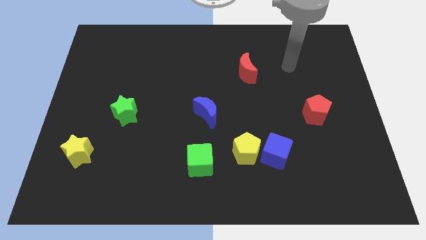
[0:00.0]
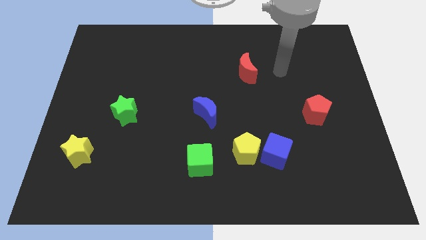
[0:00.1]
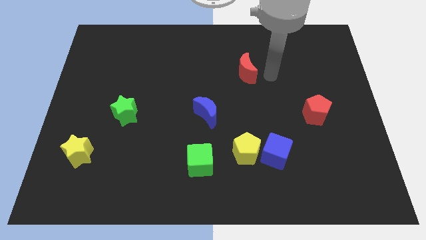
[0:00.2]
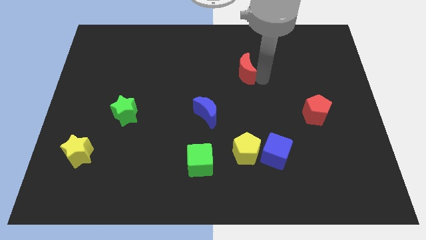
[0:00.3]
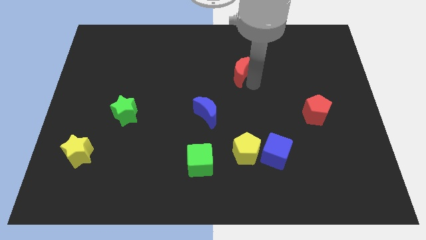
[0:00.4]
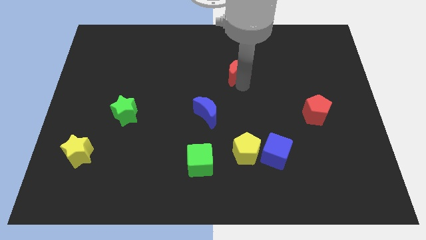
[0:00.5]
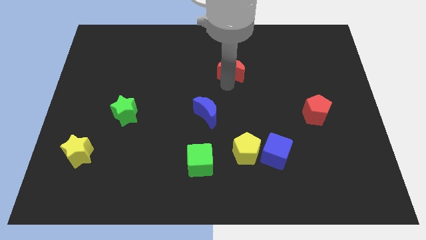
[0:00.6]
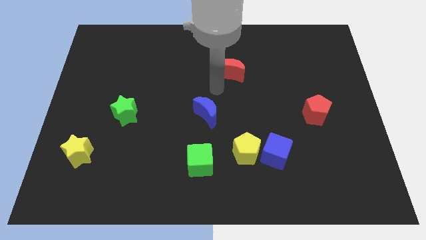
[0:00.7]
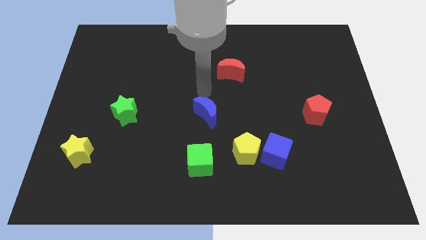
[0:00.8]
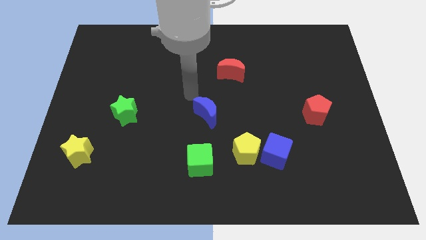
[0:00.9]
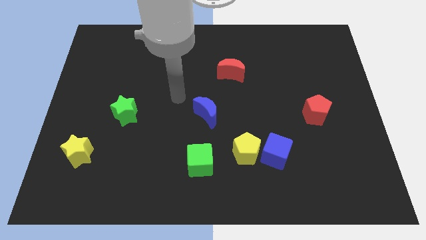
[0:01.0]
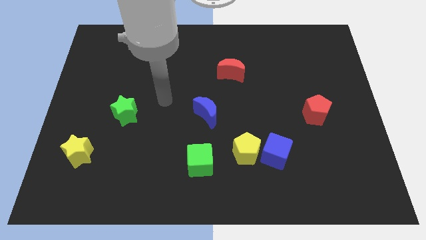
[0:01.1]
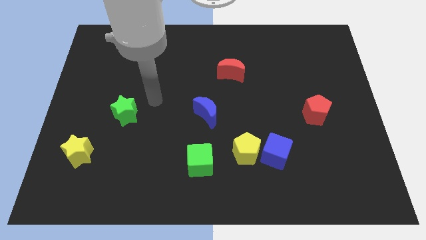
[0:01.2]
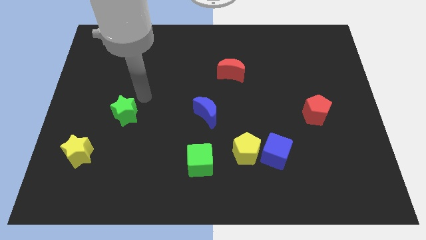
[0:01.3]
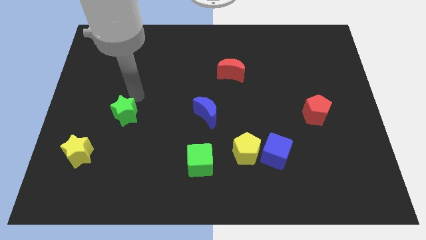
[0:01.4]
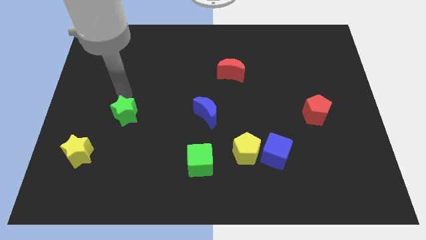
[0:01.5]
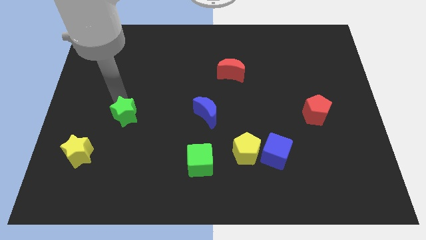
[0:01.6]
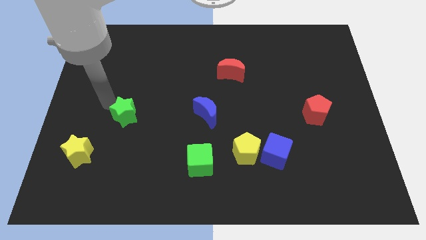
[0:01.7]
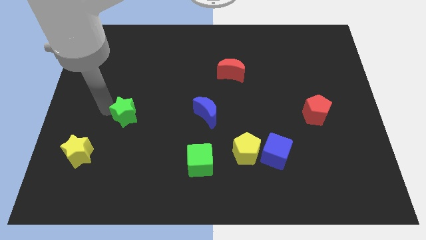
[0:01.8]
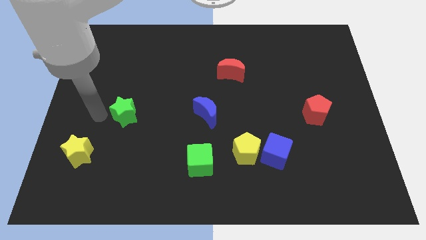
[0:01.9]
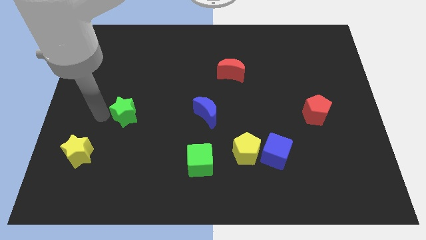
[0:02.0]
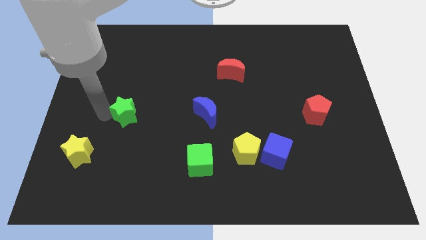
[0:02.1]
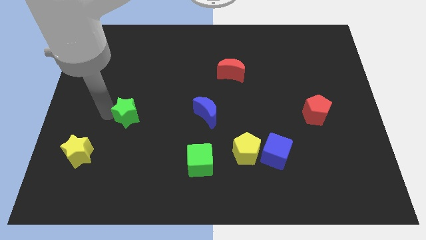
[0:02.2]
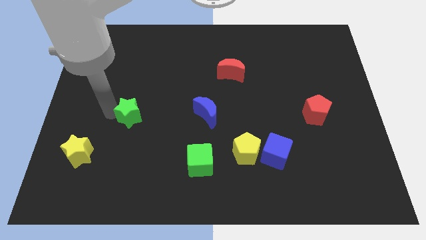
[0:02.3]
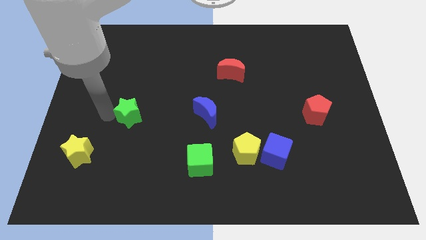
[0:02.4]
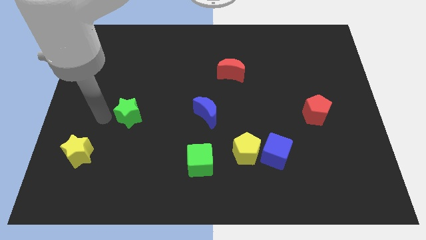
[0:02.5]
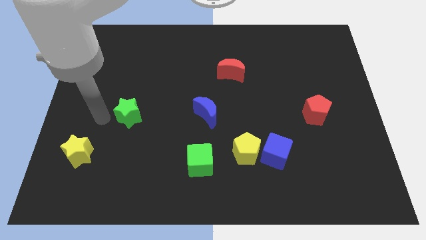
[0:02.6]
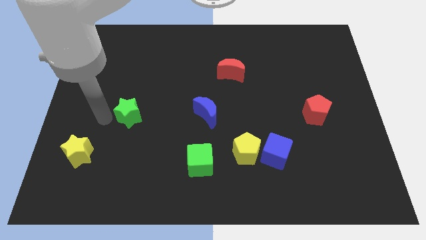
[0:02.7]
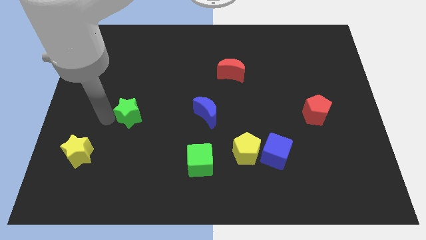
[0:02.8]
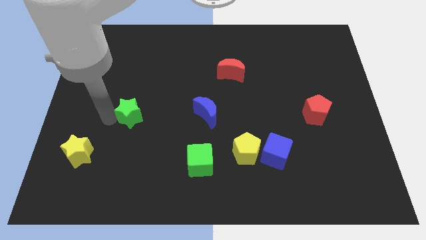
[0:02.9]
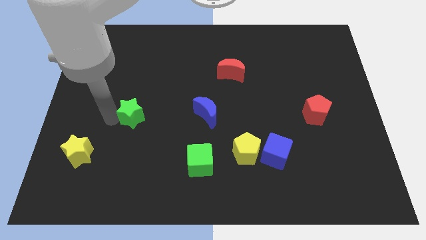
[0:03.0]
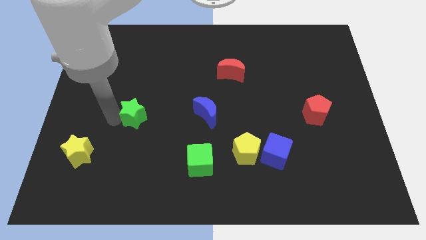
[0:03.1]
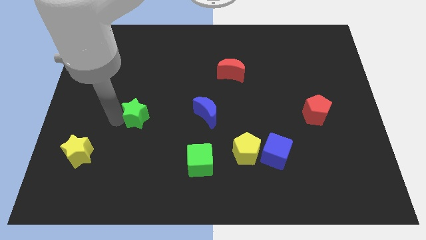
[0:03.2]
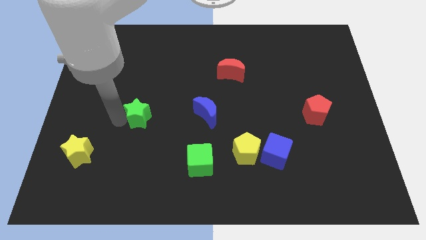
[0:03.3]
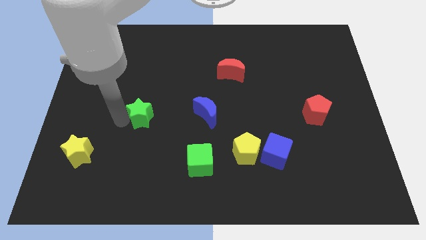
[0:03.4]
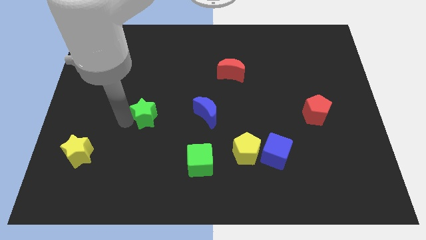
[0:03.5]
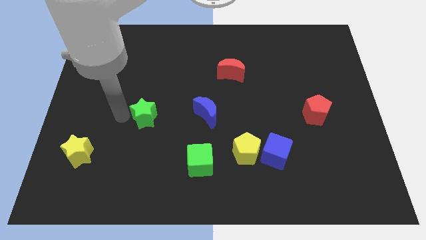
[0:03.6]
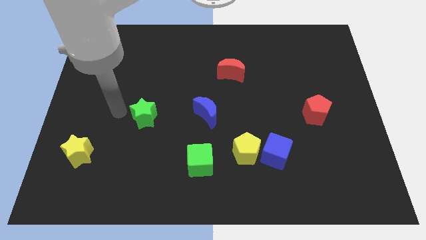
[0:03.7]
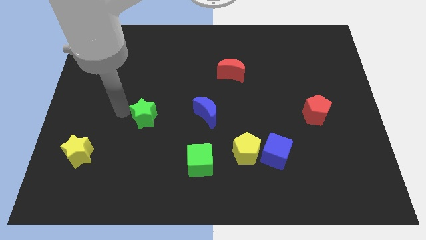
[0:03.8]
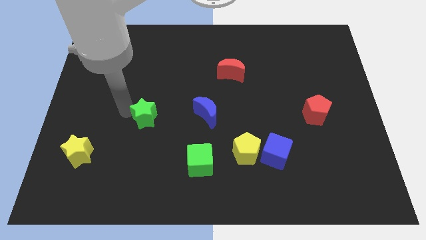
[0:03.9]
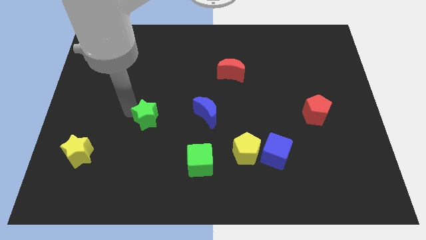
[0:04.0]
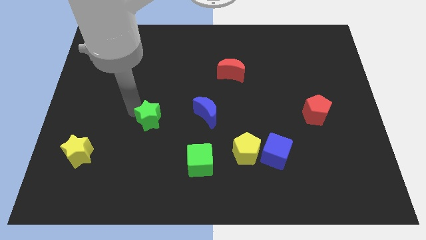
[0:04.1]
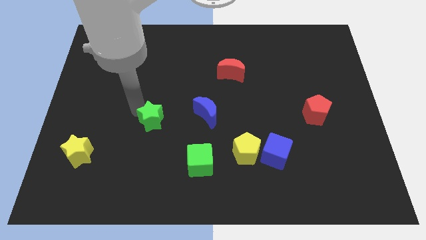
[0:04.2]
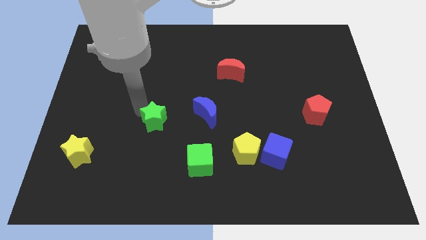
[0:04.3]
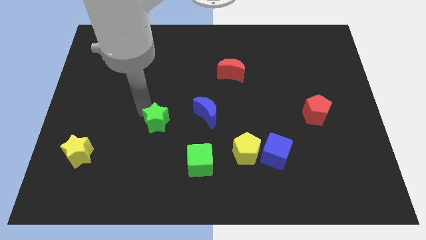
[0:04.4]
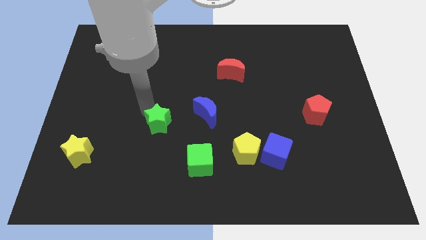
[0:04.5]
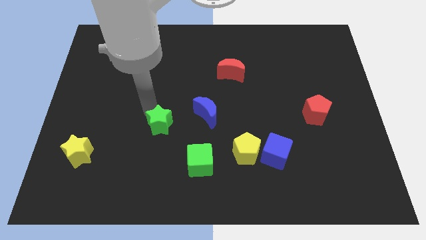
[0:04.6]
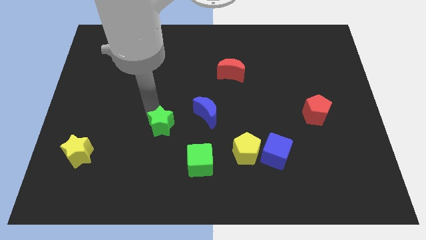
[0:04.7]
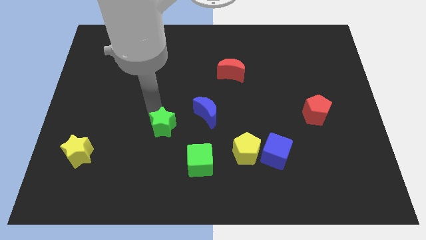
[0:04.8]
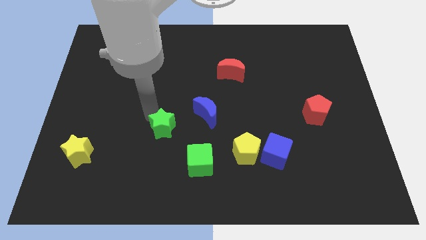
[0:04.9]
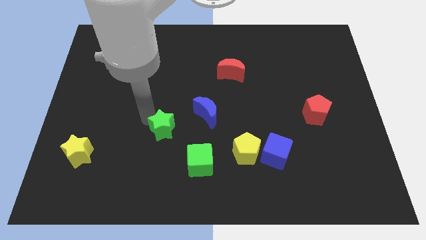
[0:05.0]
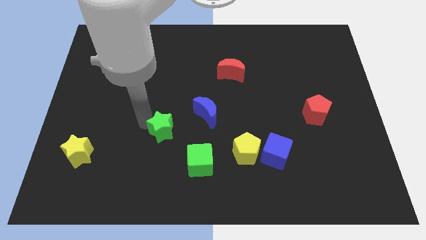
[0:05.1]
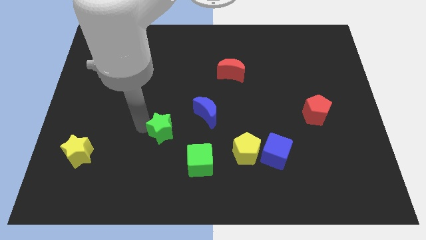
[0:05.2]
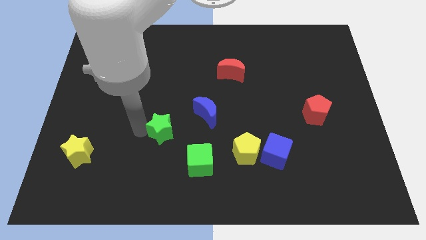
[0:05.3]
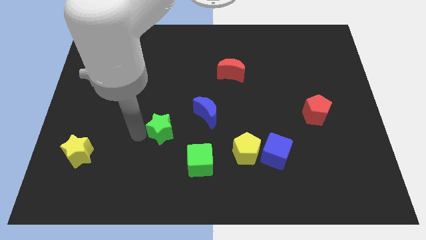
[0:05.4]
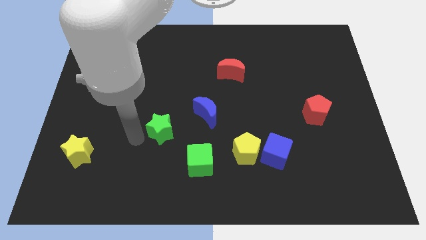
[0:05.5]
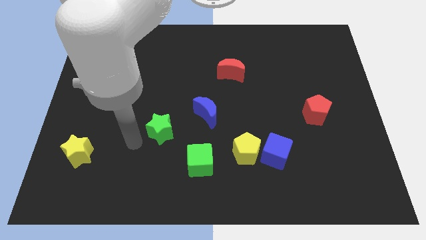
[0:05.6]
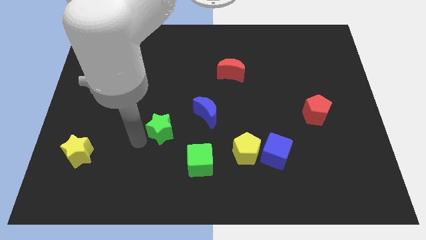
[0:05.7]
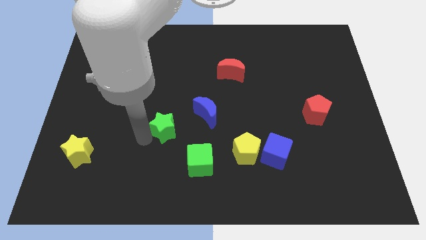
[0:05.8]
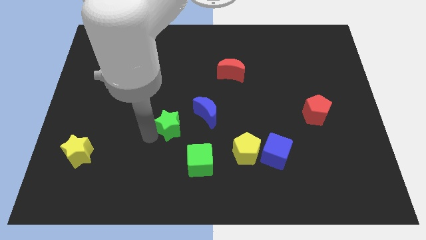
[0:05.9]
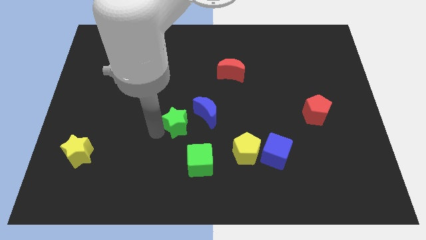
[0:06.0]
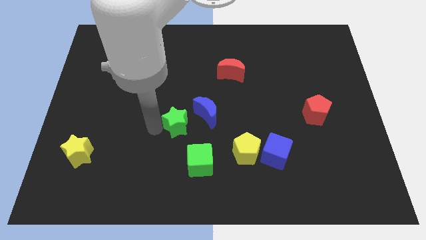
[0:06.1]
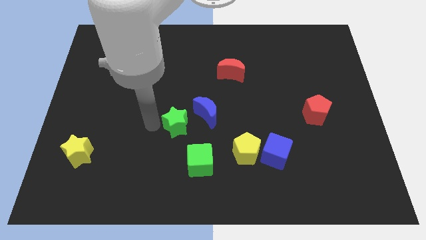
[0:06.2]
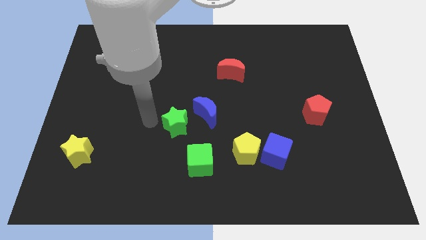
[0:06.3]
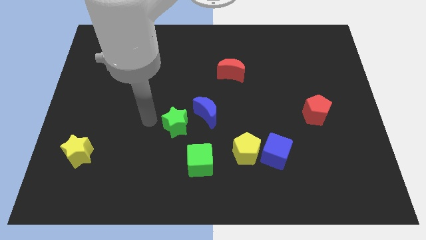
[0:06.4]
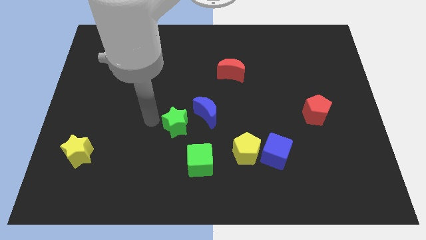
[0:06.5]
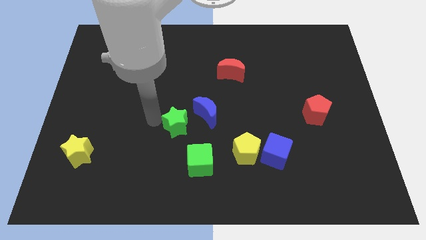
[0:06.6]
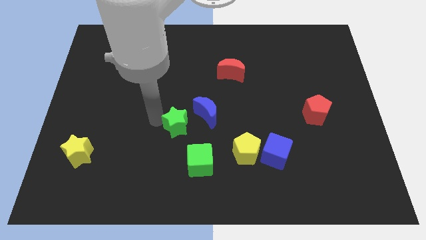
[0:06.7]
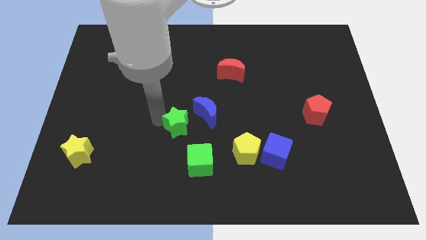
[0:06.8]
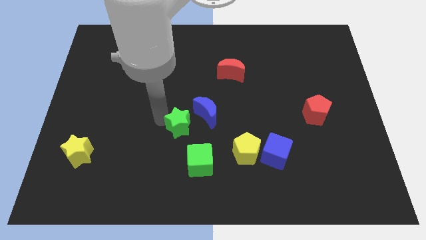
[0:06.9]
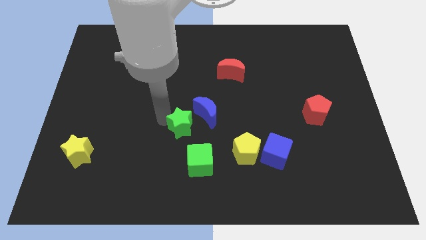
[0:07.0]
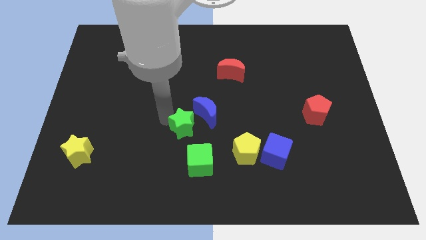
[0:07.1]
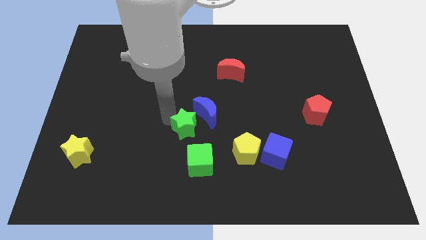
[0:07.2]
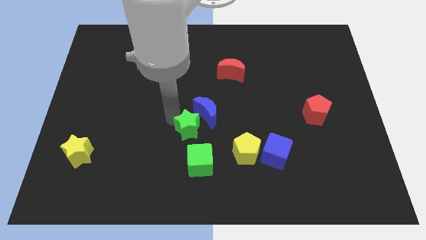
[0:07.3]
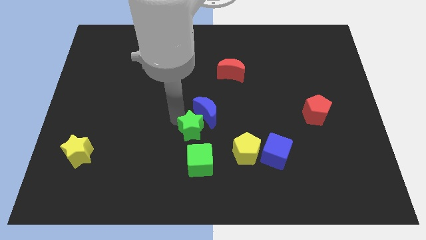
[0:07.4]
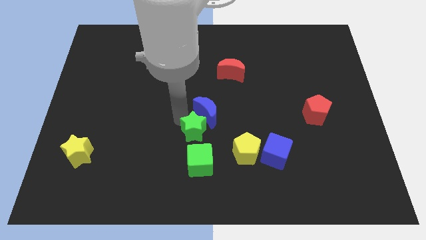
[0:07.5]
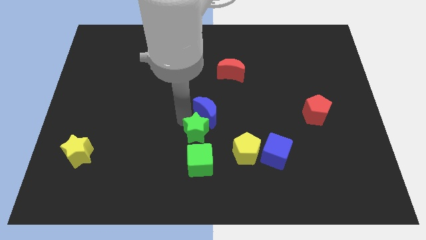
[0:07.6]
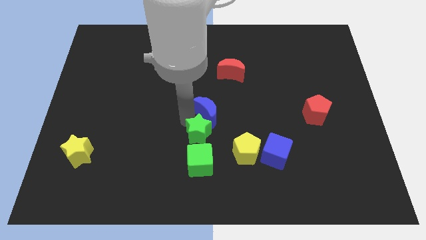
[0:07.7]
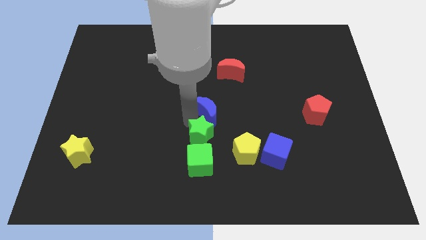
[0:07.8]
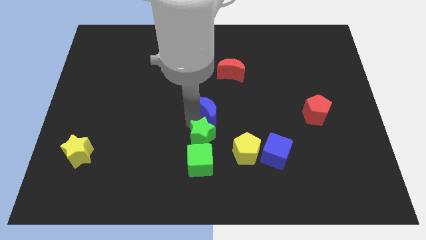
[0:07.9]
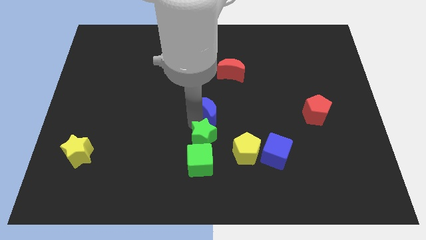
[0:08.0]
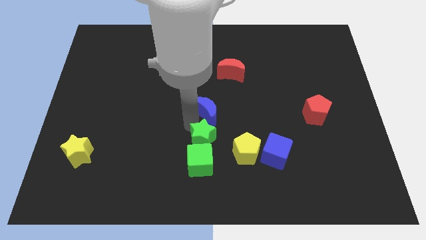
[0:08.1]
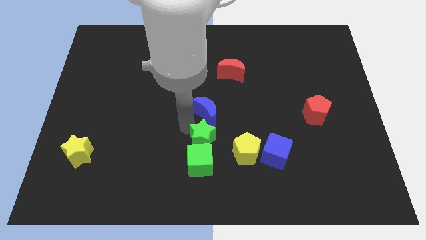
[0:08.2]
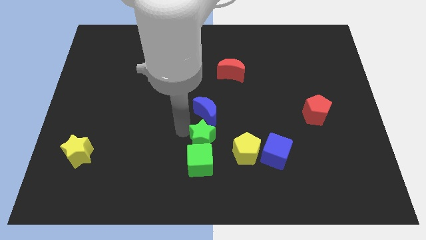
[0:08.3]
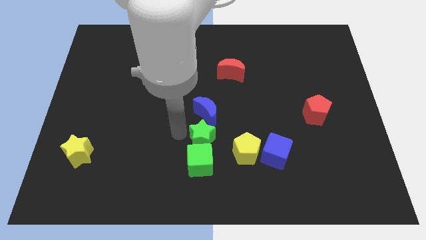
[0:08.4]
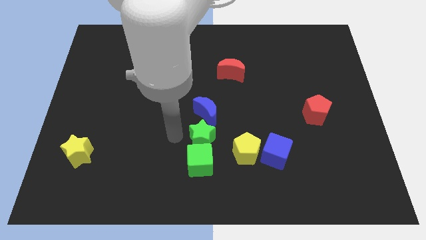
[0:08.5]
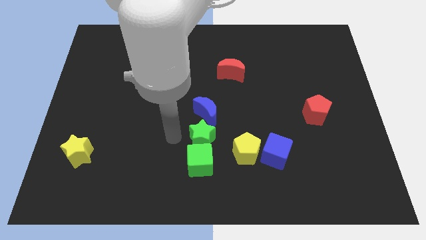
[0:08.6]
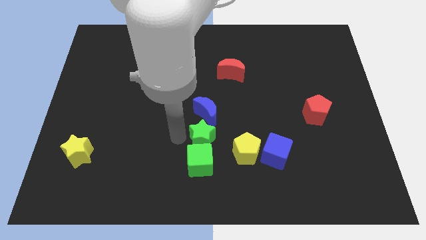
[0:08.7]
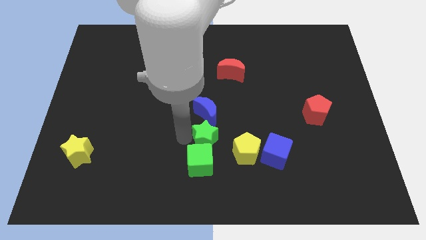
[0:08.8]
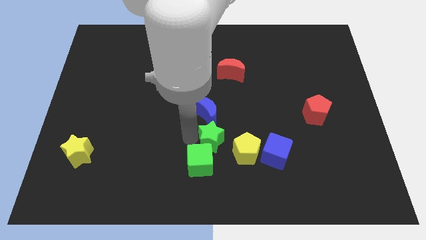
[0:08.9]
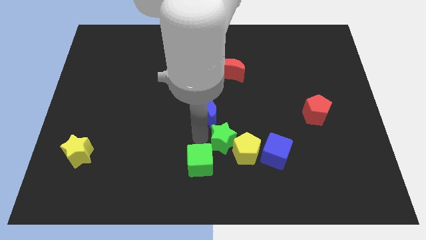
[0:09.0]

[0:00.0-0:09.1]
move the green star close to the yellow pentagon
